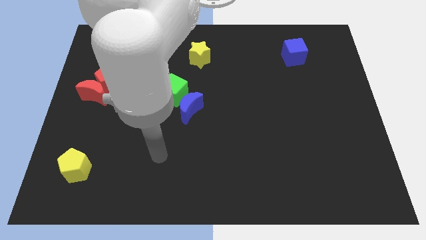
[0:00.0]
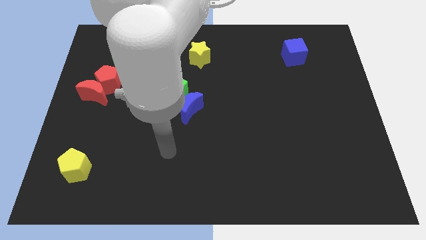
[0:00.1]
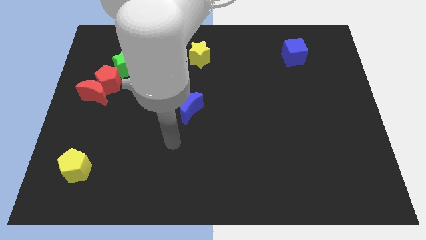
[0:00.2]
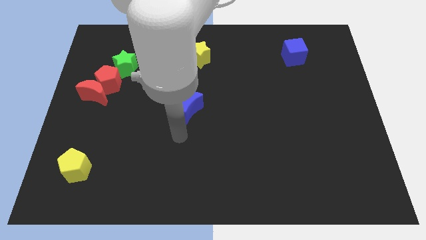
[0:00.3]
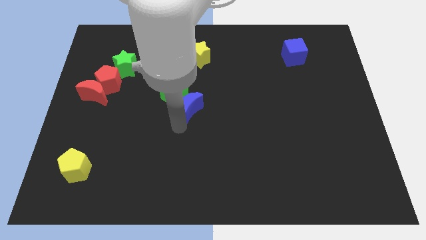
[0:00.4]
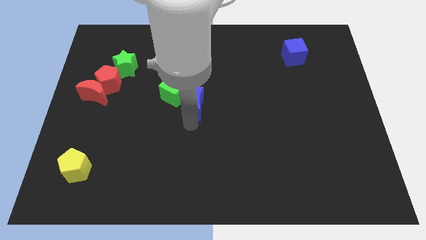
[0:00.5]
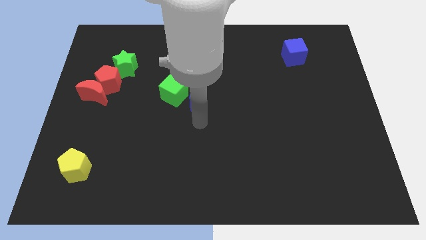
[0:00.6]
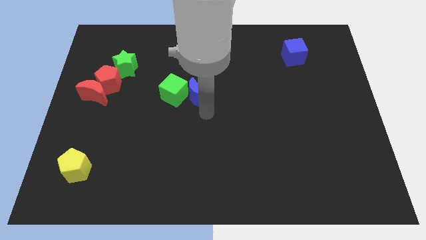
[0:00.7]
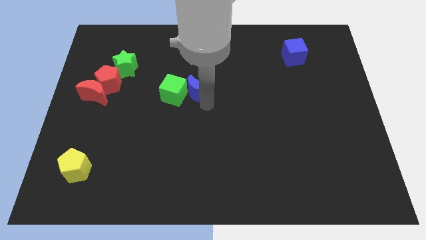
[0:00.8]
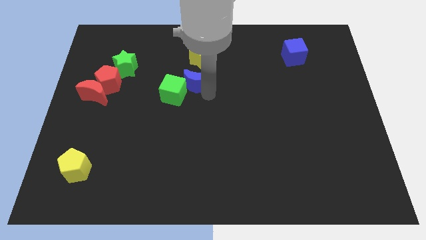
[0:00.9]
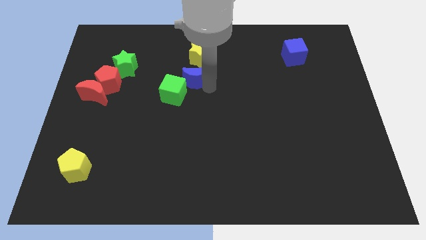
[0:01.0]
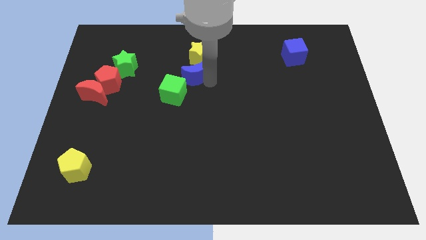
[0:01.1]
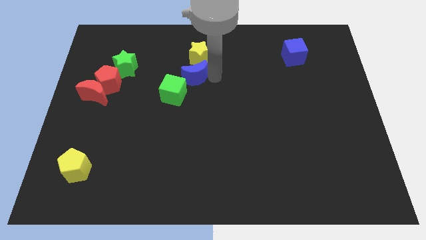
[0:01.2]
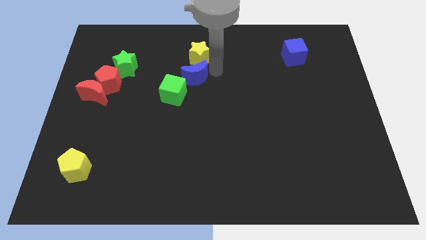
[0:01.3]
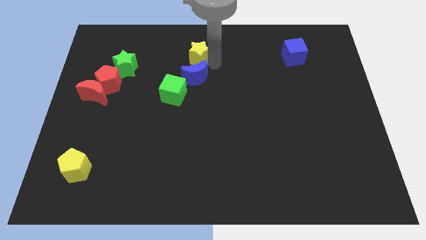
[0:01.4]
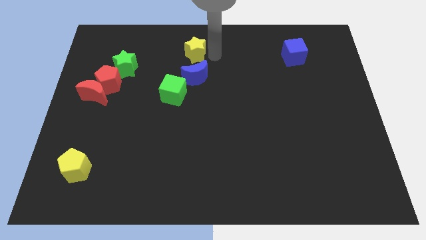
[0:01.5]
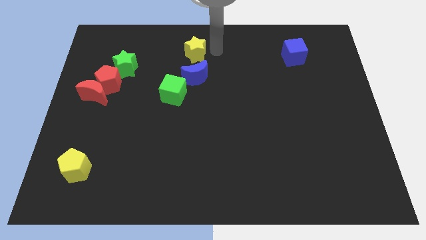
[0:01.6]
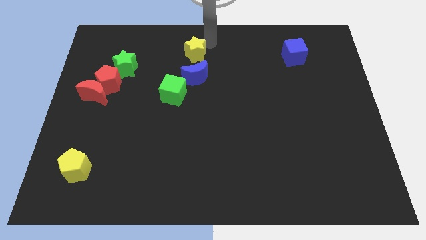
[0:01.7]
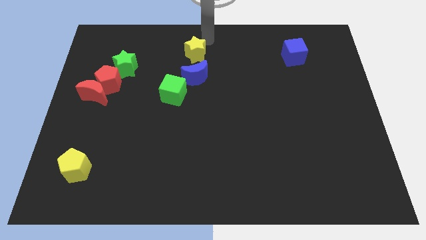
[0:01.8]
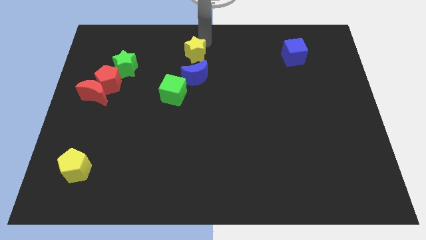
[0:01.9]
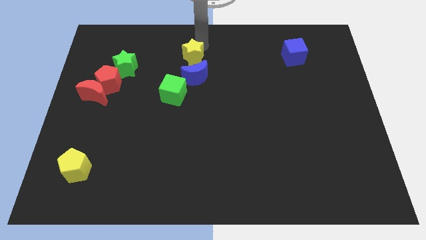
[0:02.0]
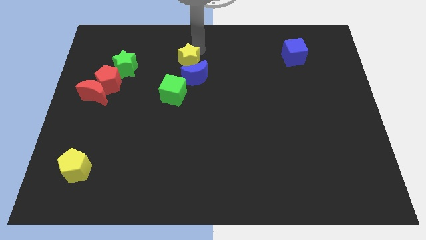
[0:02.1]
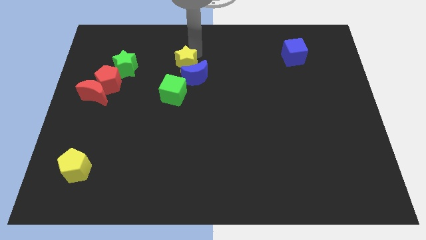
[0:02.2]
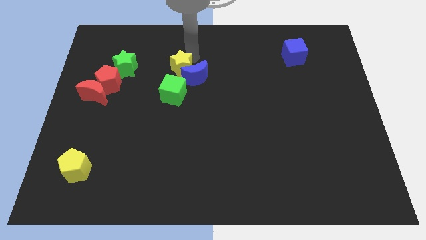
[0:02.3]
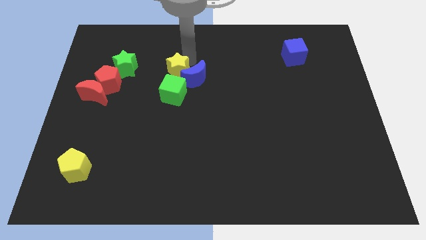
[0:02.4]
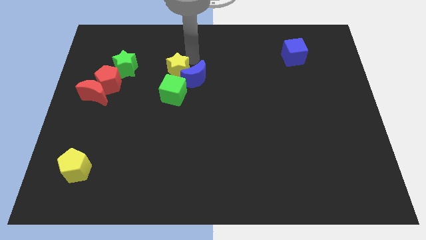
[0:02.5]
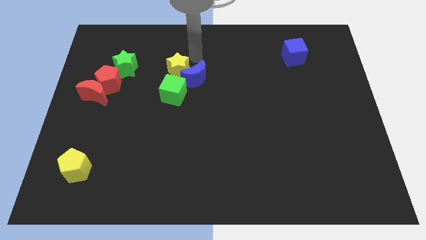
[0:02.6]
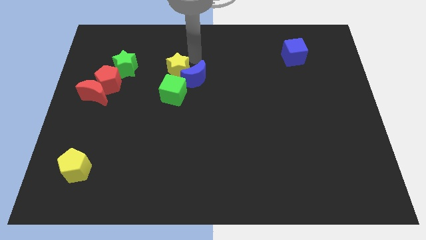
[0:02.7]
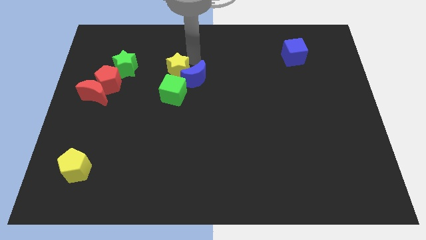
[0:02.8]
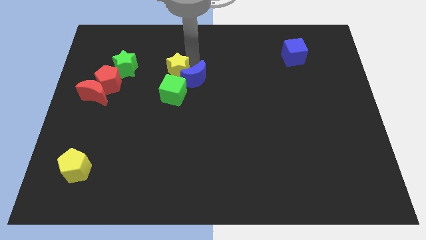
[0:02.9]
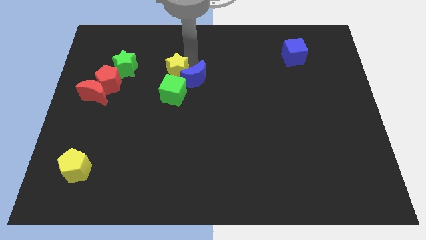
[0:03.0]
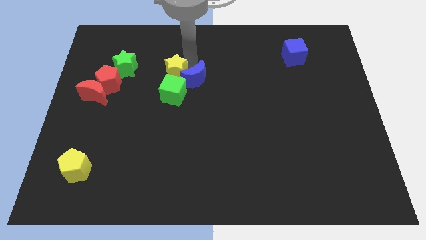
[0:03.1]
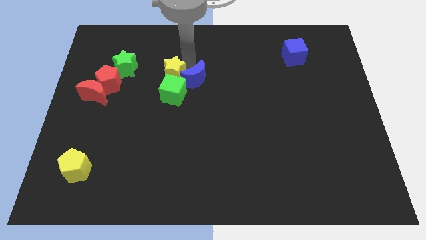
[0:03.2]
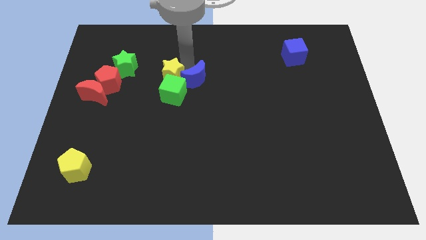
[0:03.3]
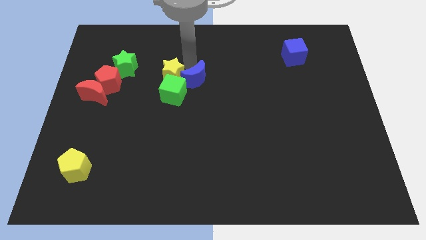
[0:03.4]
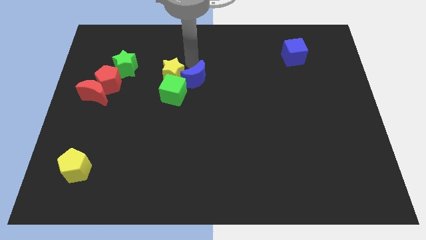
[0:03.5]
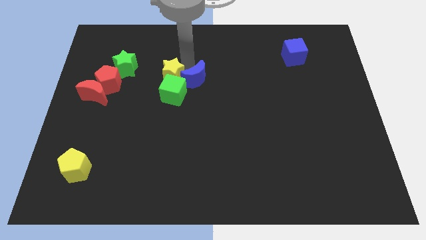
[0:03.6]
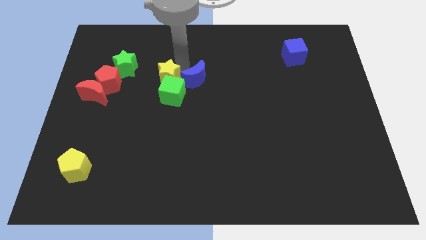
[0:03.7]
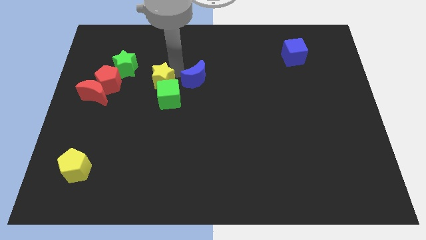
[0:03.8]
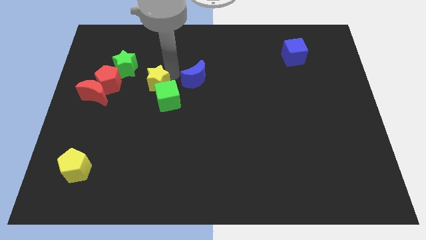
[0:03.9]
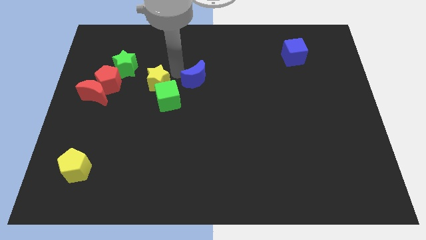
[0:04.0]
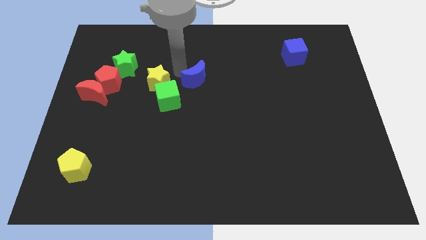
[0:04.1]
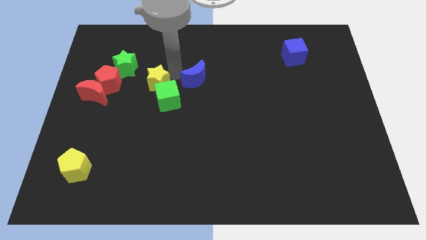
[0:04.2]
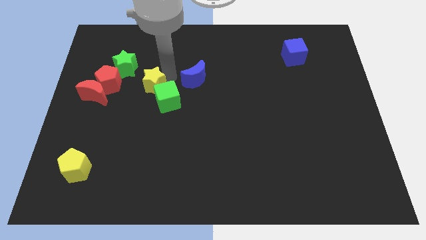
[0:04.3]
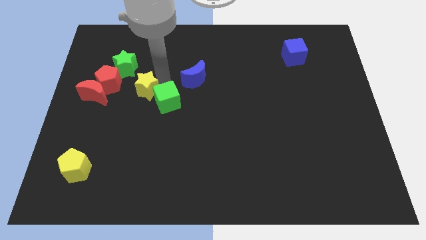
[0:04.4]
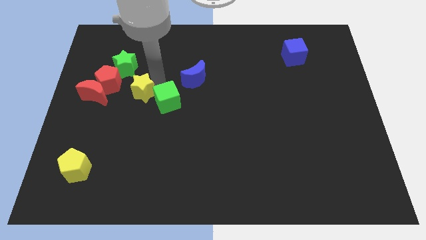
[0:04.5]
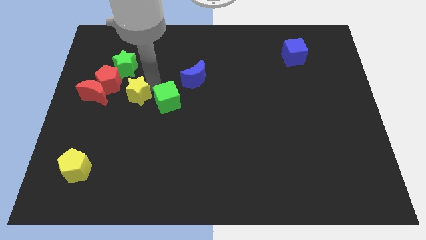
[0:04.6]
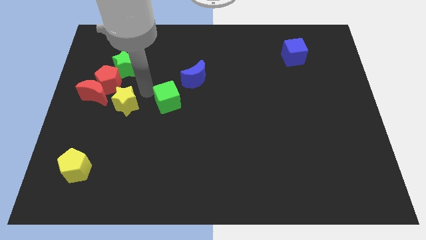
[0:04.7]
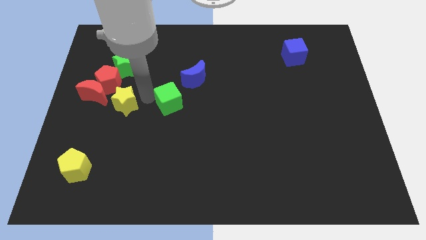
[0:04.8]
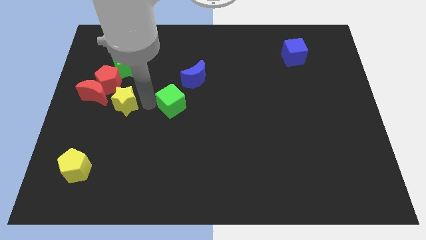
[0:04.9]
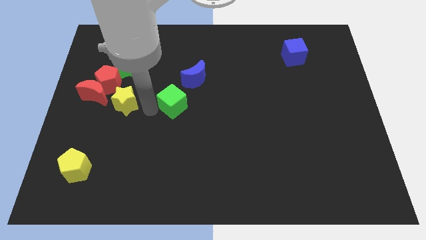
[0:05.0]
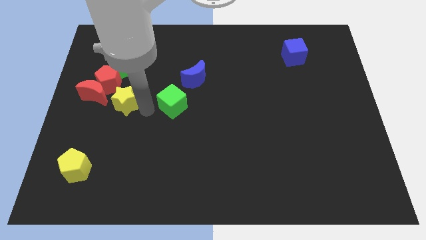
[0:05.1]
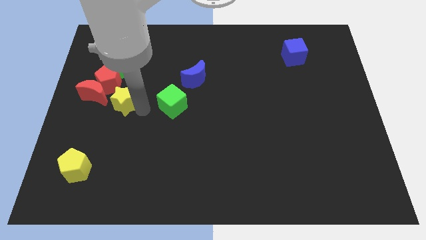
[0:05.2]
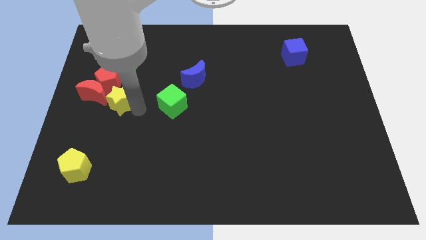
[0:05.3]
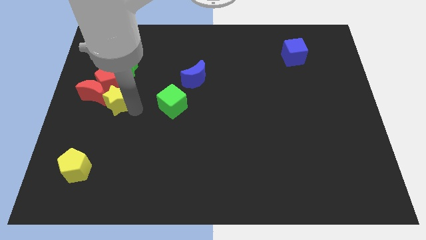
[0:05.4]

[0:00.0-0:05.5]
put the yellow star close to the red moon

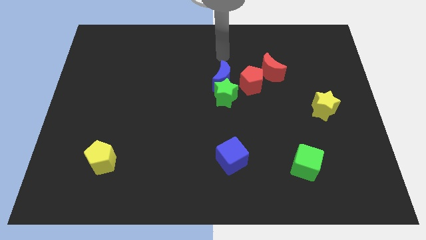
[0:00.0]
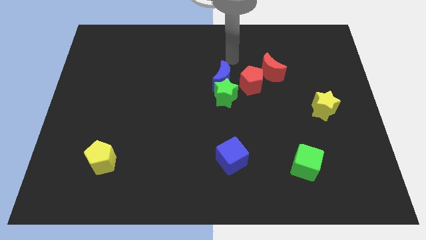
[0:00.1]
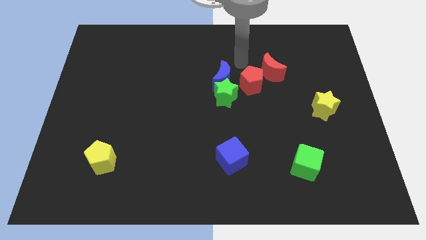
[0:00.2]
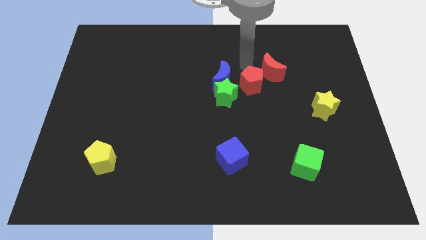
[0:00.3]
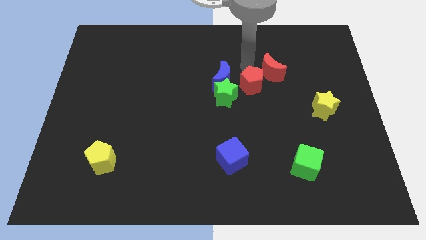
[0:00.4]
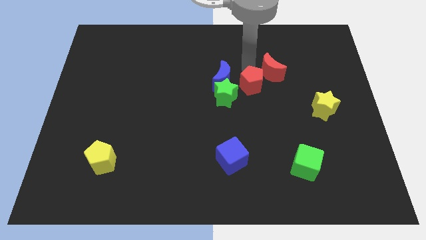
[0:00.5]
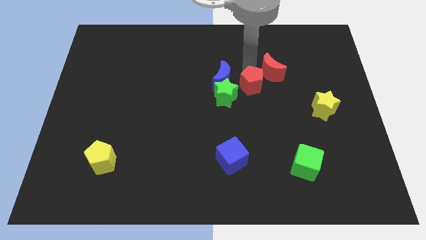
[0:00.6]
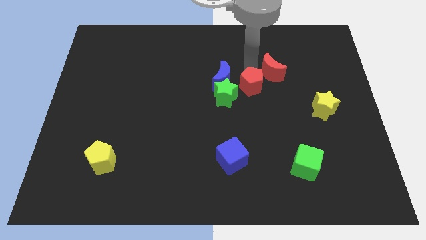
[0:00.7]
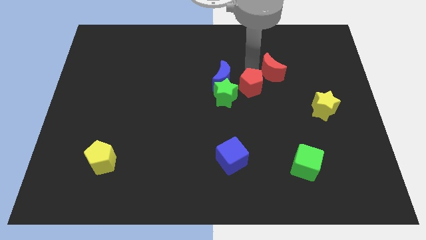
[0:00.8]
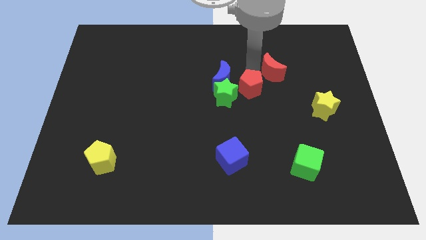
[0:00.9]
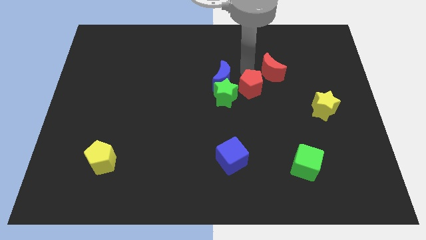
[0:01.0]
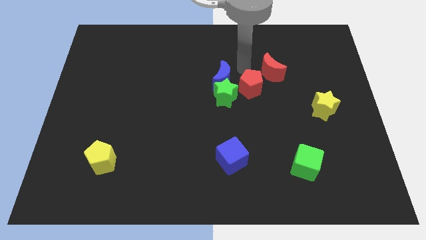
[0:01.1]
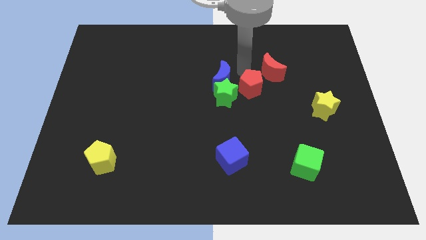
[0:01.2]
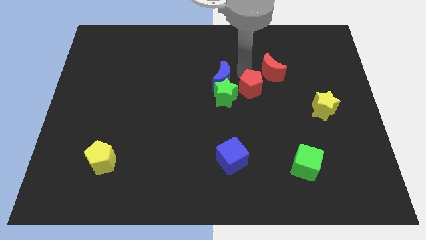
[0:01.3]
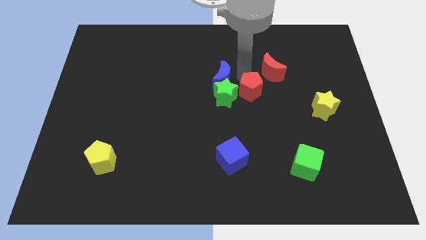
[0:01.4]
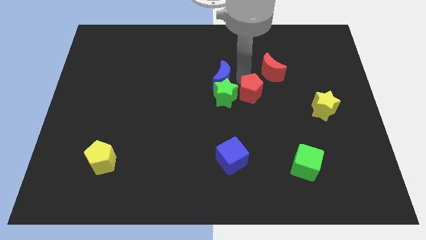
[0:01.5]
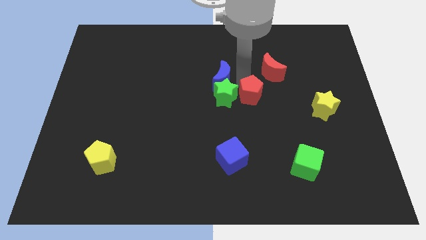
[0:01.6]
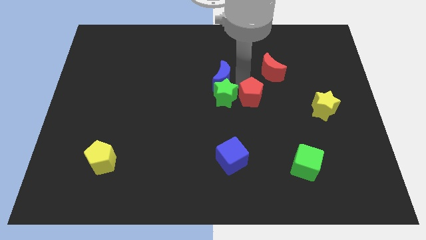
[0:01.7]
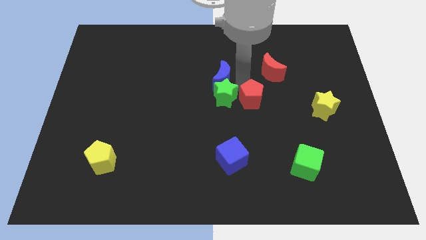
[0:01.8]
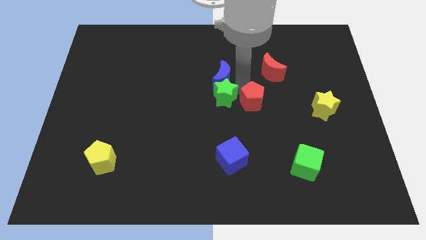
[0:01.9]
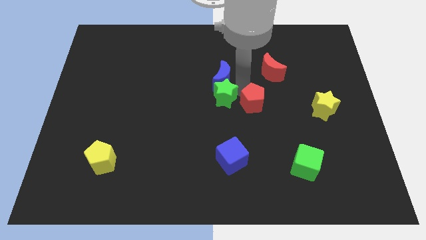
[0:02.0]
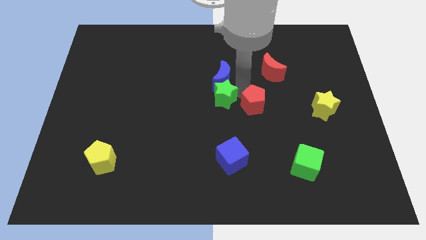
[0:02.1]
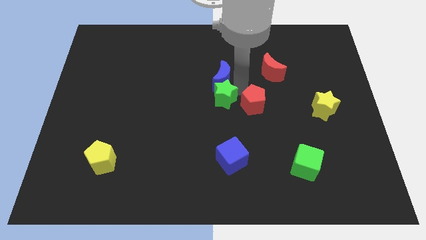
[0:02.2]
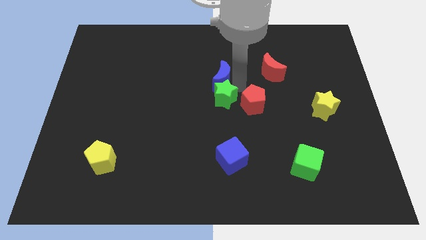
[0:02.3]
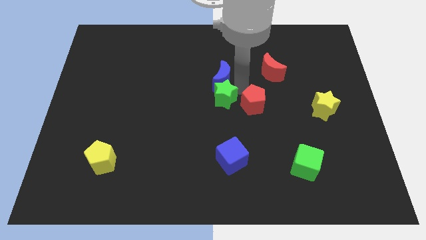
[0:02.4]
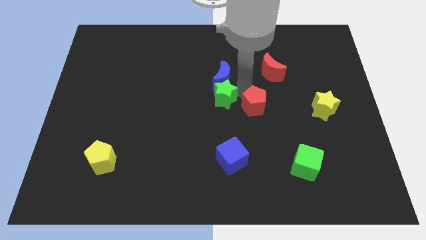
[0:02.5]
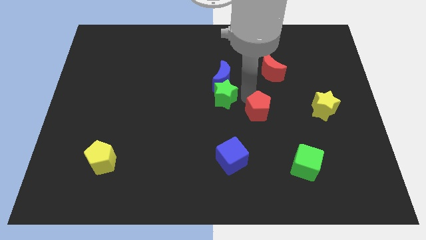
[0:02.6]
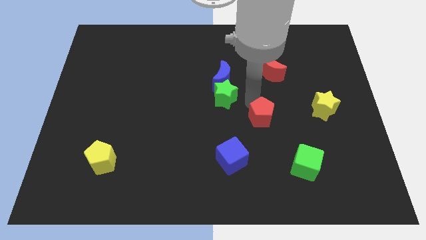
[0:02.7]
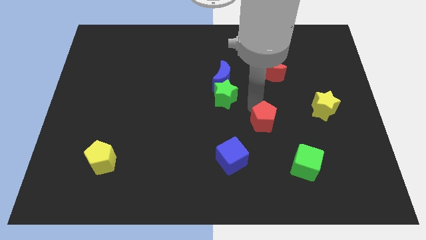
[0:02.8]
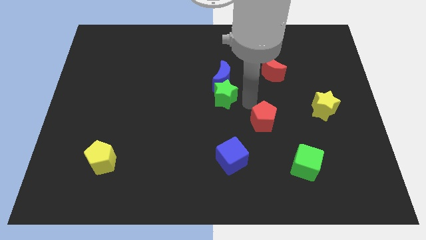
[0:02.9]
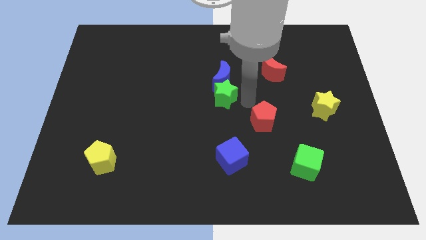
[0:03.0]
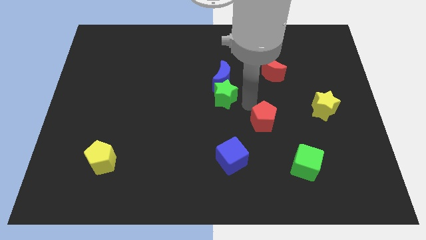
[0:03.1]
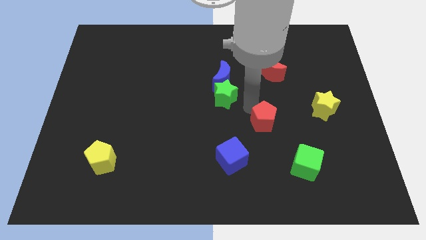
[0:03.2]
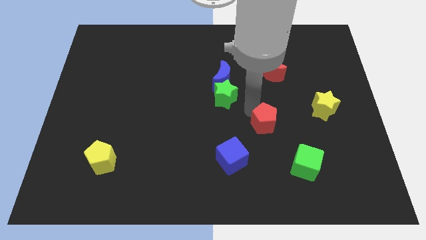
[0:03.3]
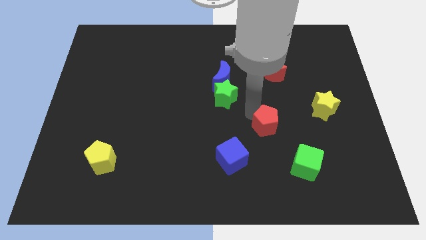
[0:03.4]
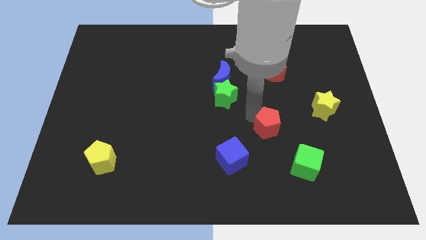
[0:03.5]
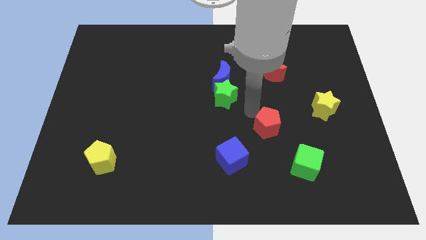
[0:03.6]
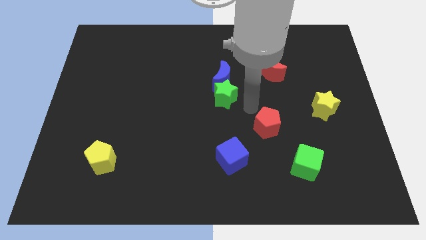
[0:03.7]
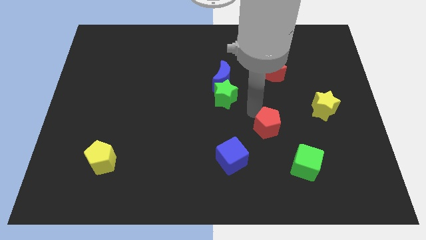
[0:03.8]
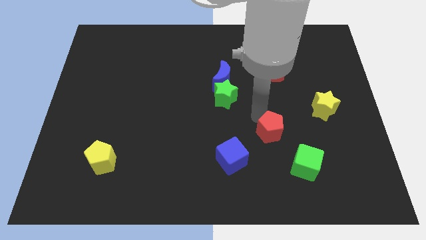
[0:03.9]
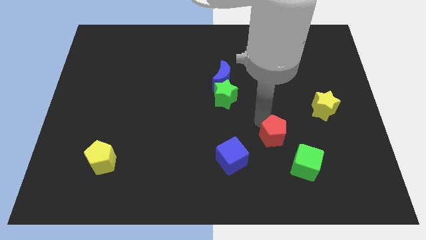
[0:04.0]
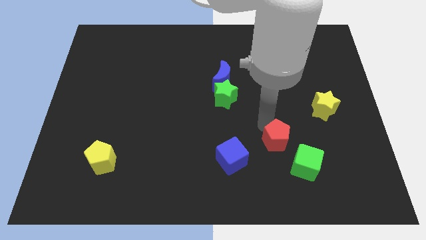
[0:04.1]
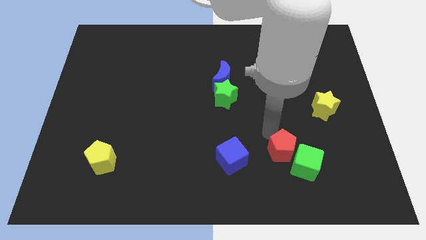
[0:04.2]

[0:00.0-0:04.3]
slide the red pentagon to the green cube
